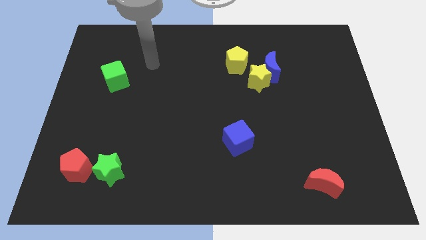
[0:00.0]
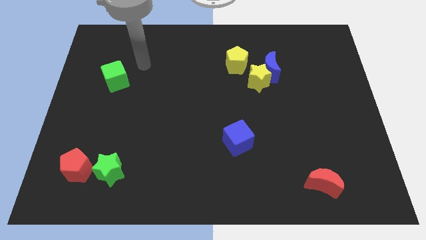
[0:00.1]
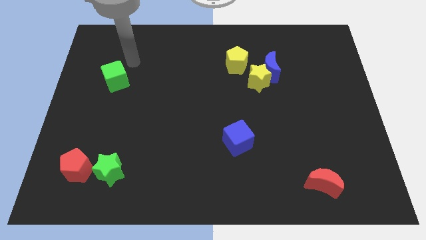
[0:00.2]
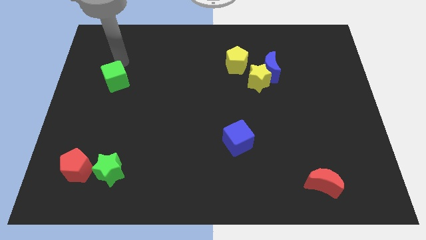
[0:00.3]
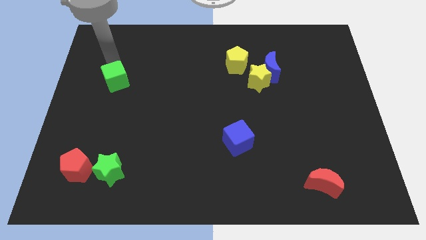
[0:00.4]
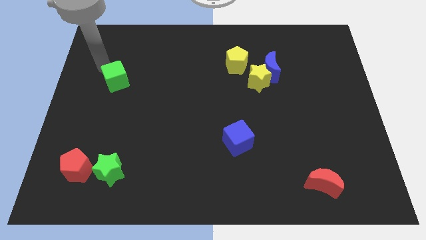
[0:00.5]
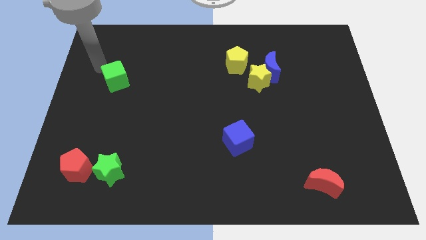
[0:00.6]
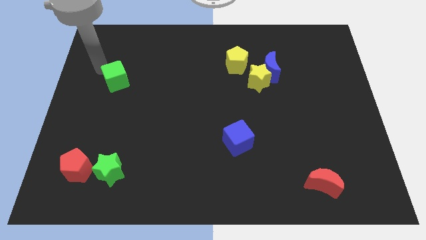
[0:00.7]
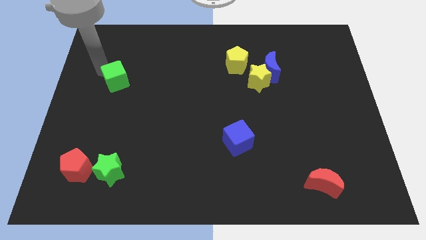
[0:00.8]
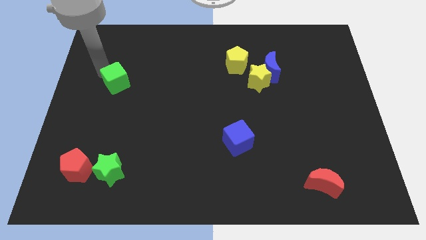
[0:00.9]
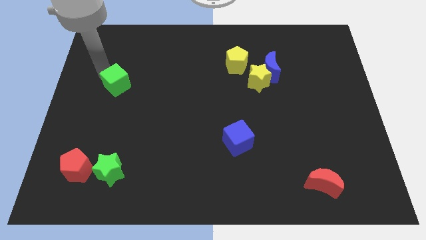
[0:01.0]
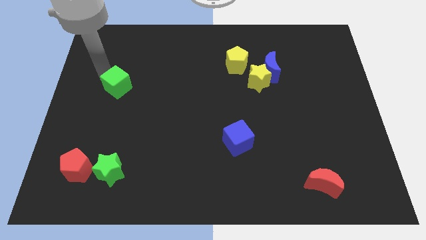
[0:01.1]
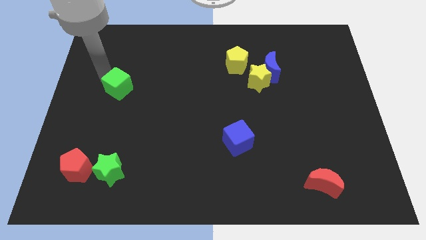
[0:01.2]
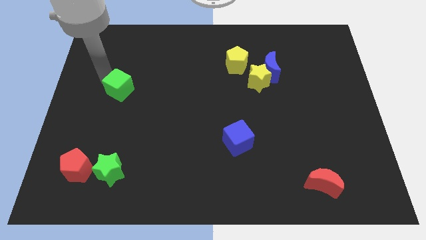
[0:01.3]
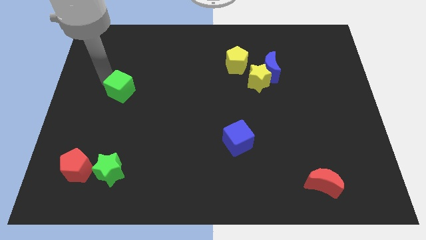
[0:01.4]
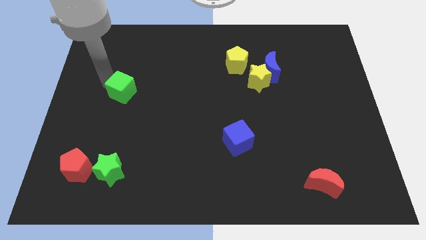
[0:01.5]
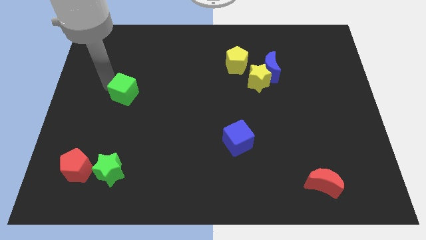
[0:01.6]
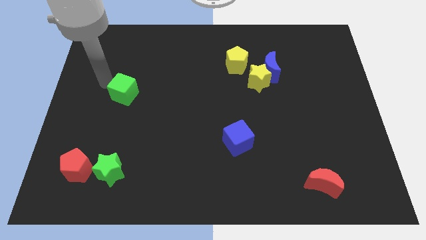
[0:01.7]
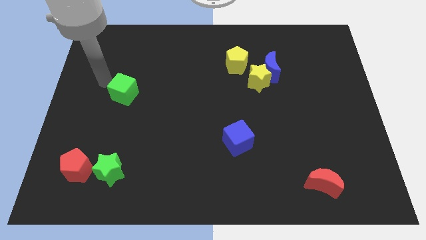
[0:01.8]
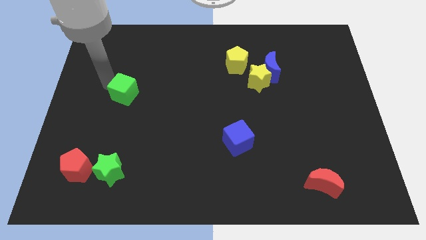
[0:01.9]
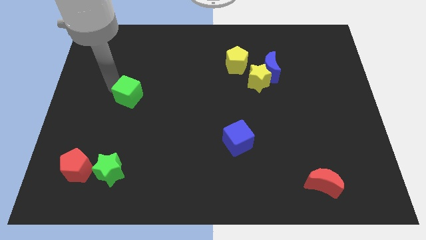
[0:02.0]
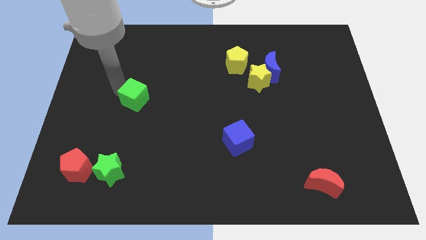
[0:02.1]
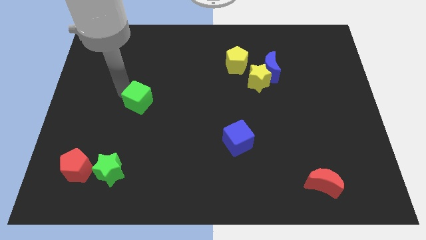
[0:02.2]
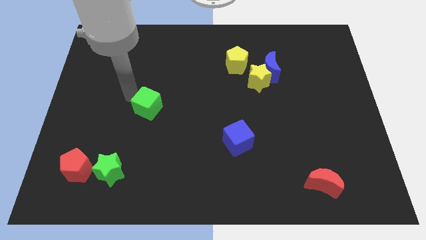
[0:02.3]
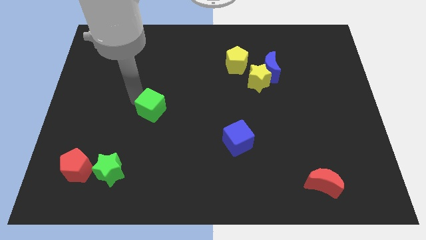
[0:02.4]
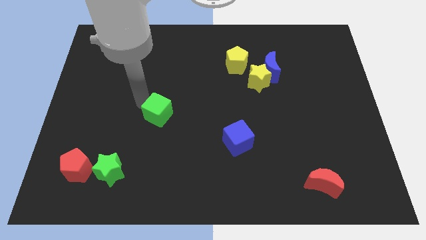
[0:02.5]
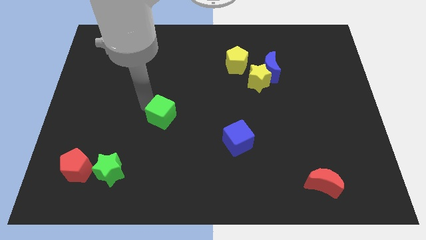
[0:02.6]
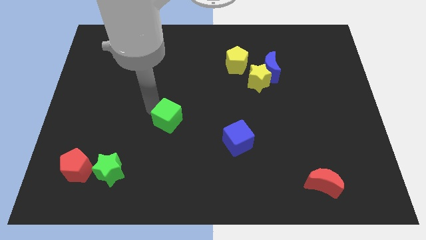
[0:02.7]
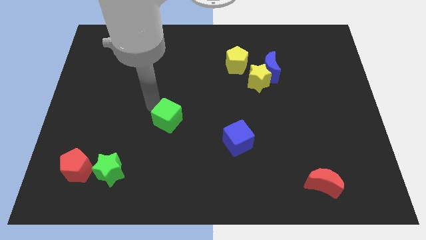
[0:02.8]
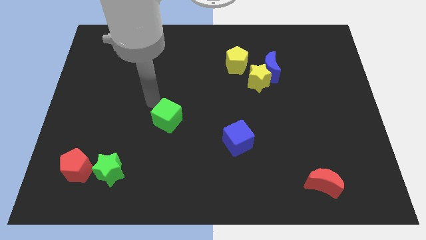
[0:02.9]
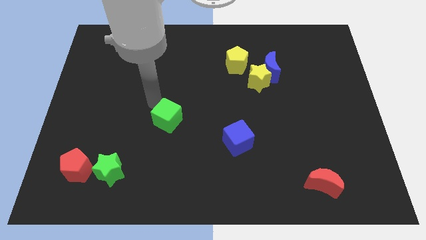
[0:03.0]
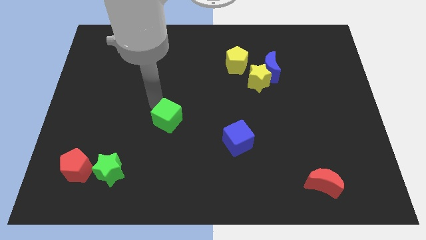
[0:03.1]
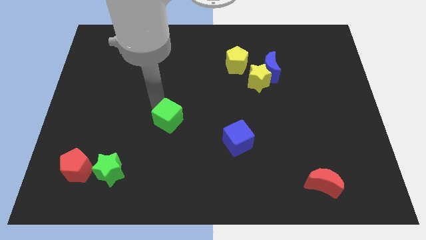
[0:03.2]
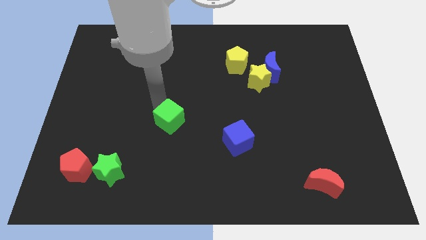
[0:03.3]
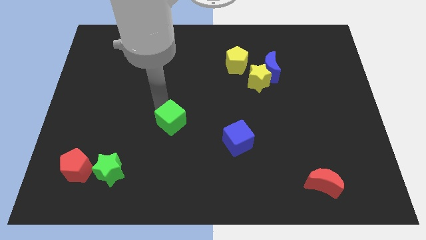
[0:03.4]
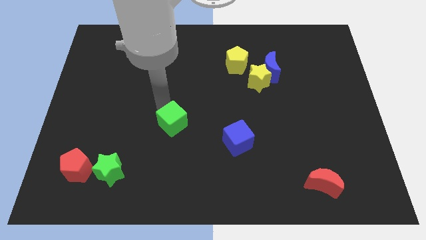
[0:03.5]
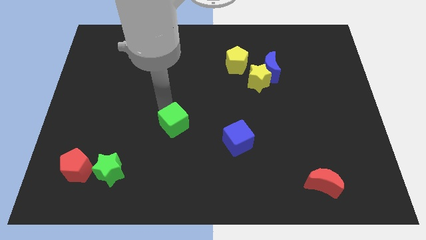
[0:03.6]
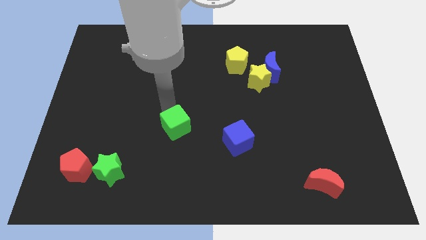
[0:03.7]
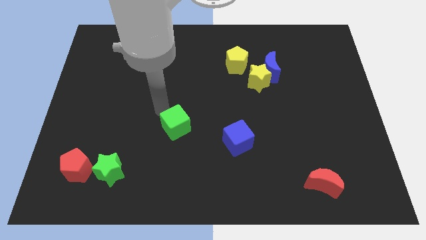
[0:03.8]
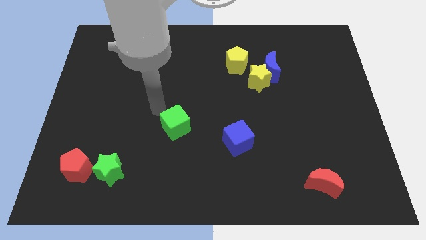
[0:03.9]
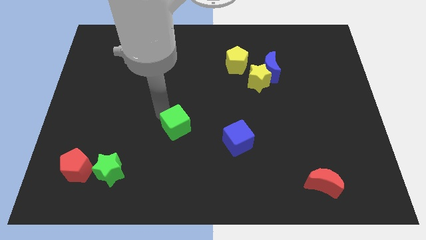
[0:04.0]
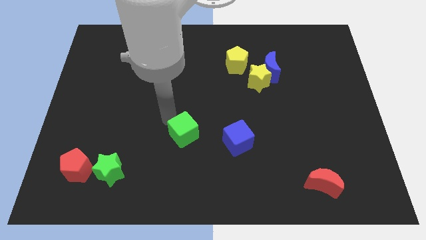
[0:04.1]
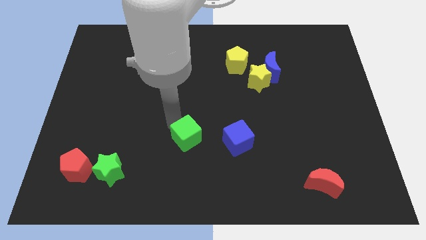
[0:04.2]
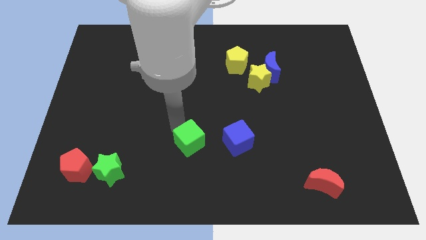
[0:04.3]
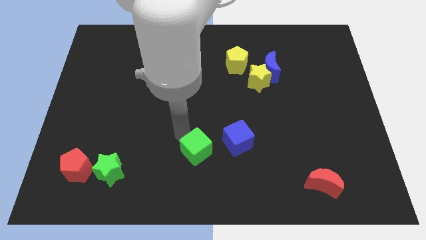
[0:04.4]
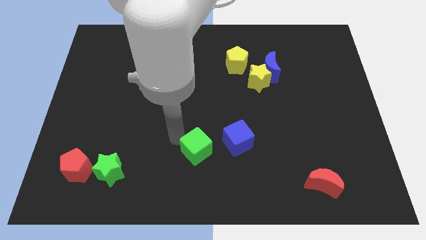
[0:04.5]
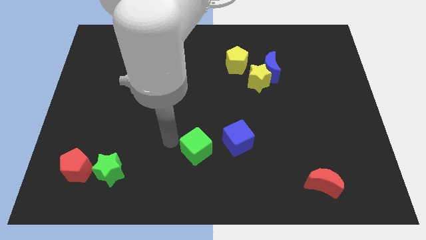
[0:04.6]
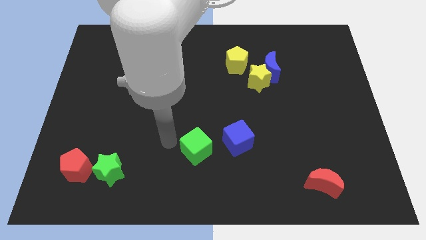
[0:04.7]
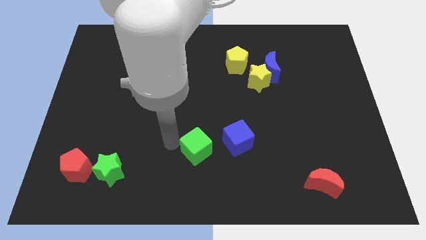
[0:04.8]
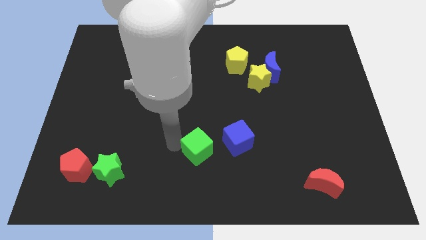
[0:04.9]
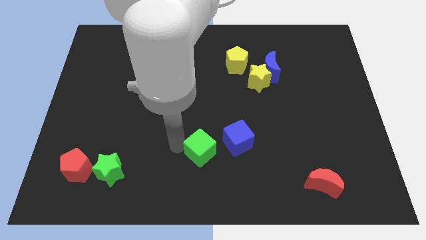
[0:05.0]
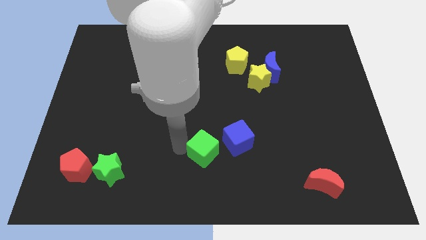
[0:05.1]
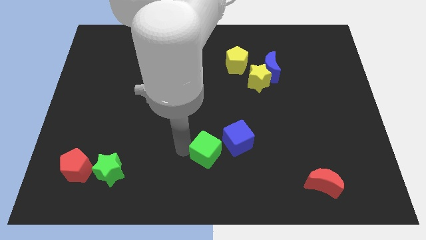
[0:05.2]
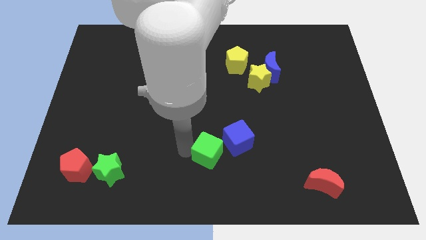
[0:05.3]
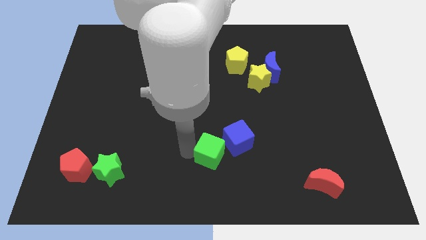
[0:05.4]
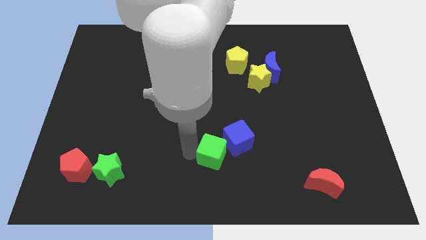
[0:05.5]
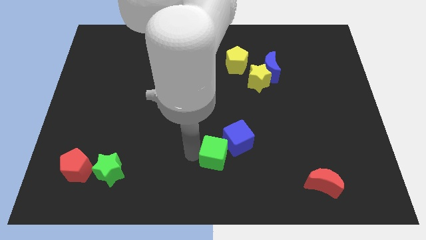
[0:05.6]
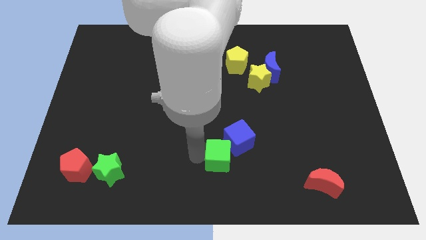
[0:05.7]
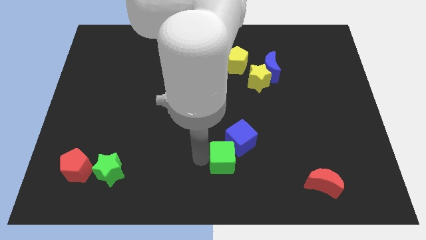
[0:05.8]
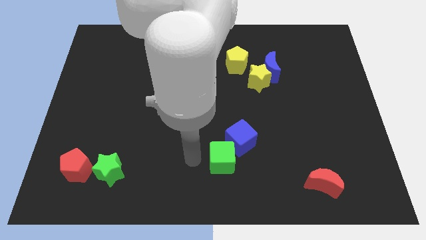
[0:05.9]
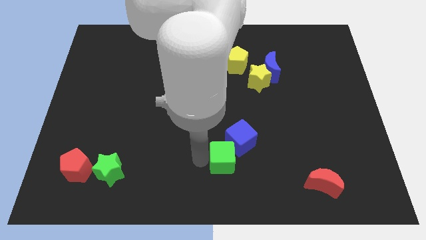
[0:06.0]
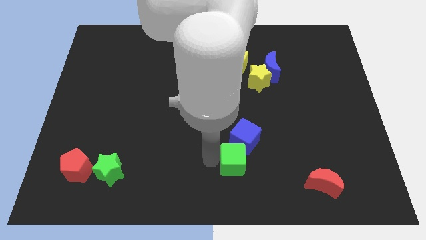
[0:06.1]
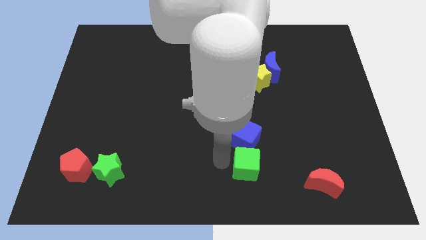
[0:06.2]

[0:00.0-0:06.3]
slide the green cube to the bottom right side of the blue cube

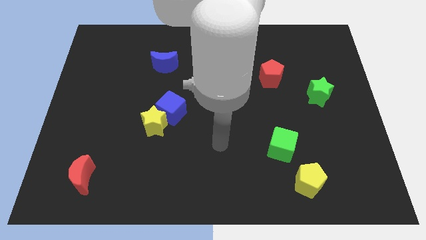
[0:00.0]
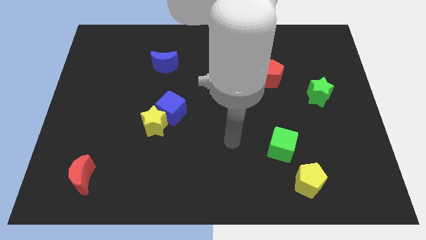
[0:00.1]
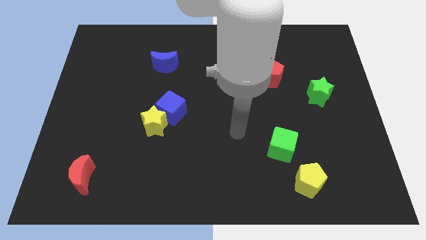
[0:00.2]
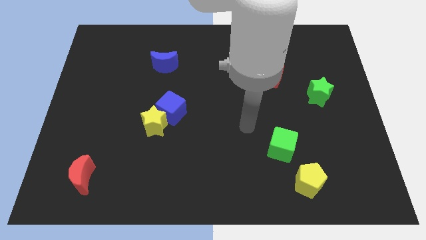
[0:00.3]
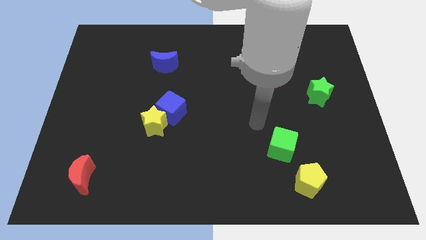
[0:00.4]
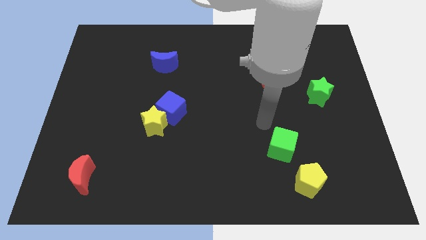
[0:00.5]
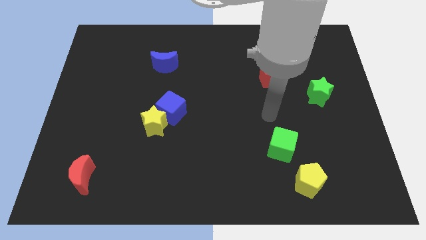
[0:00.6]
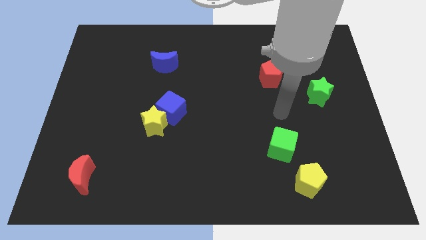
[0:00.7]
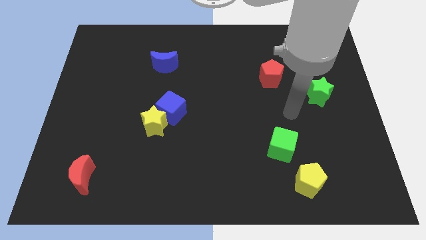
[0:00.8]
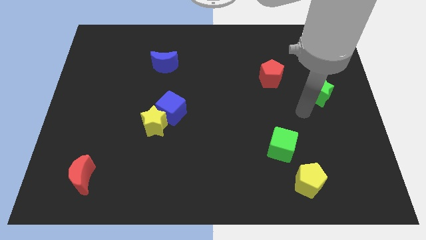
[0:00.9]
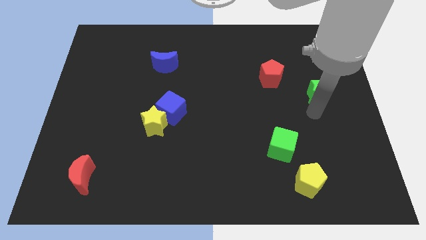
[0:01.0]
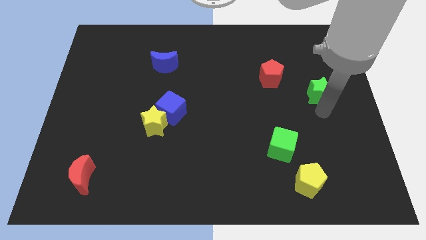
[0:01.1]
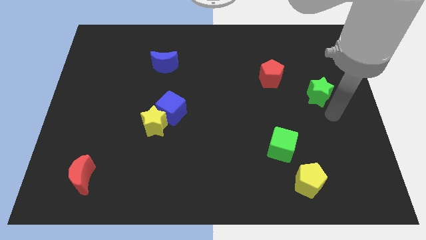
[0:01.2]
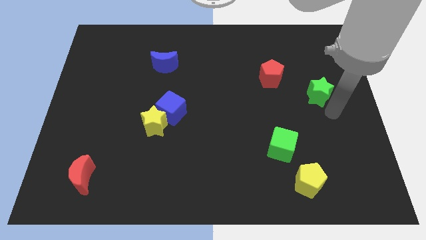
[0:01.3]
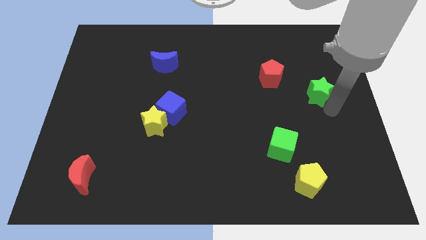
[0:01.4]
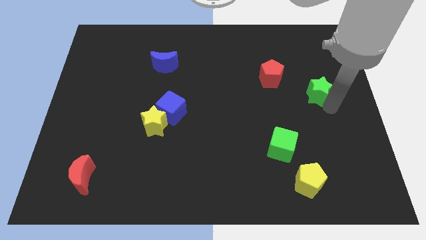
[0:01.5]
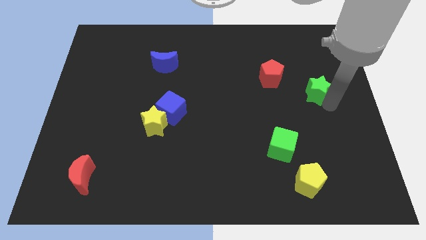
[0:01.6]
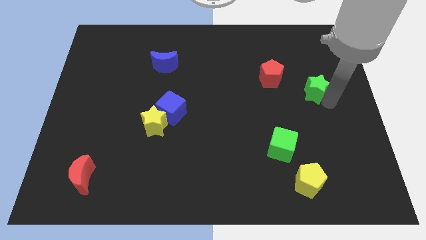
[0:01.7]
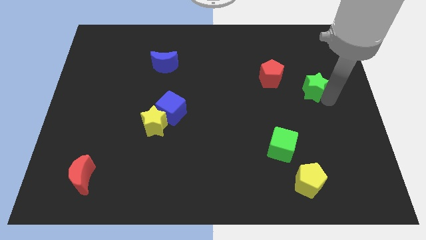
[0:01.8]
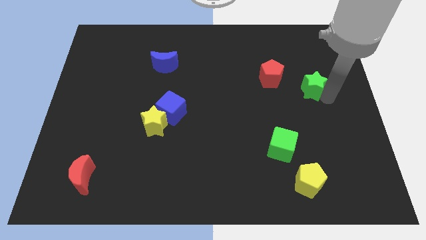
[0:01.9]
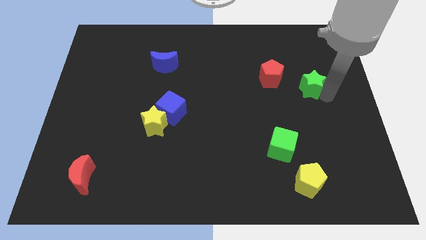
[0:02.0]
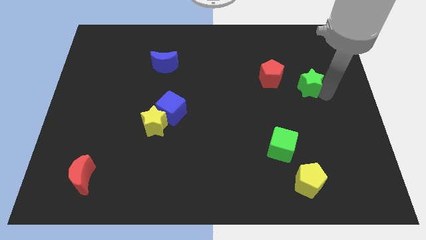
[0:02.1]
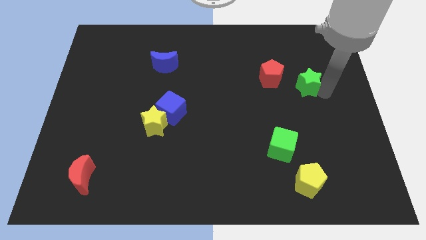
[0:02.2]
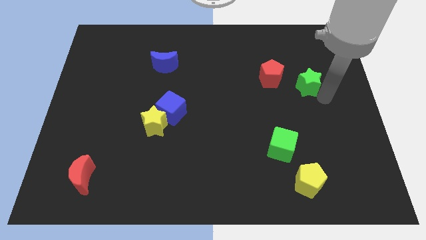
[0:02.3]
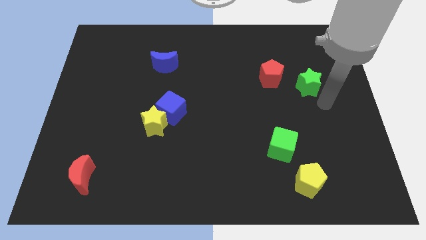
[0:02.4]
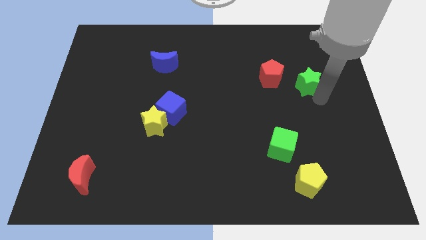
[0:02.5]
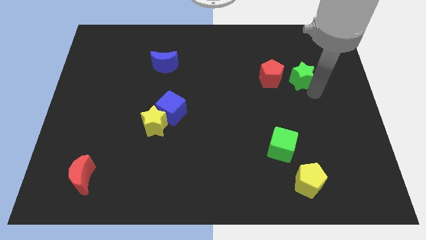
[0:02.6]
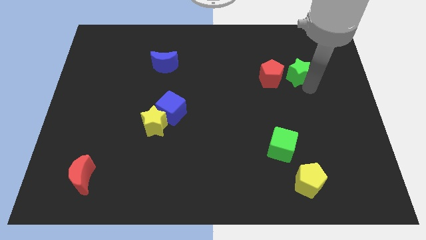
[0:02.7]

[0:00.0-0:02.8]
put the green star to the top right side of the red pentagon
